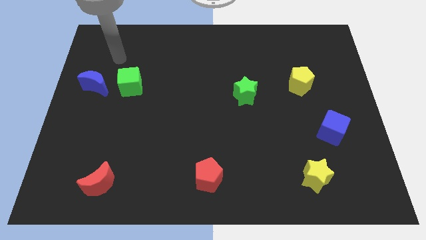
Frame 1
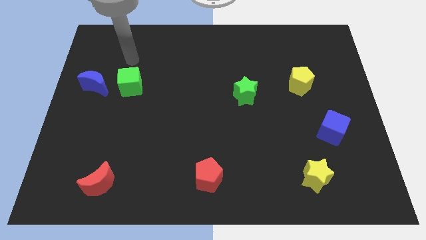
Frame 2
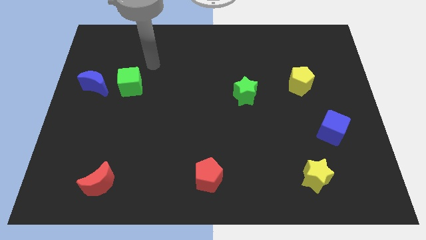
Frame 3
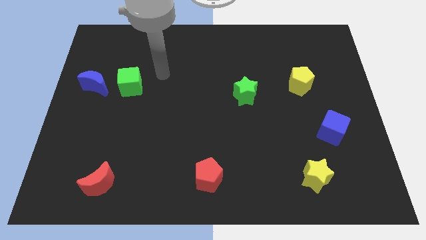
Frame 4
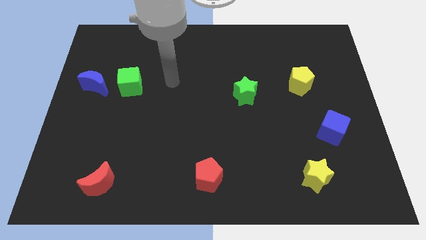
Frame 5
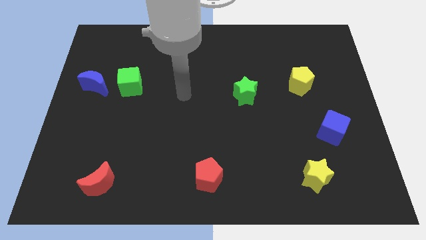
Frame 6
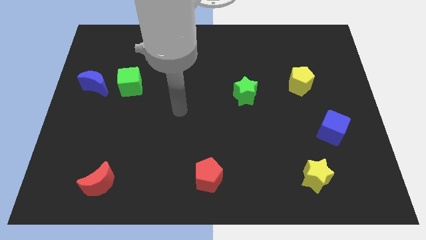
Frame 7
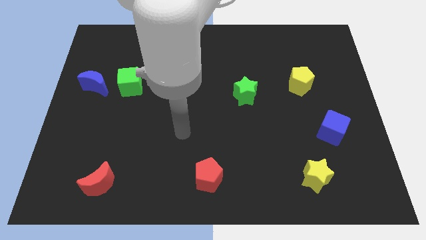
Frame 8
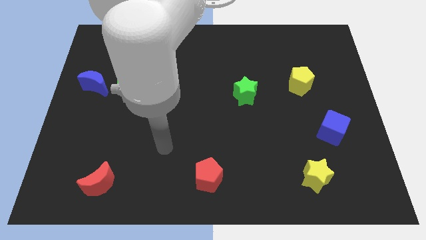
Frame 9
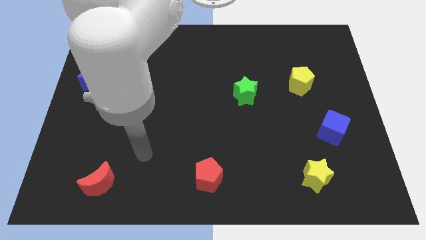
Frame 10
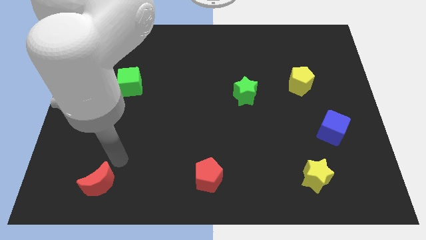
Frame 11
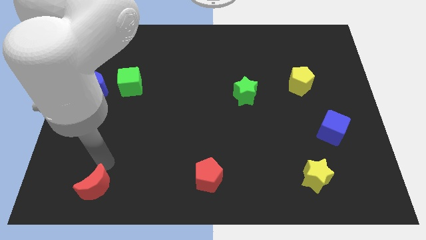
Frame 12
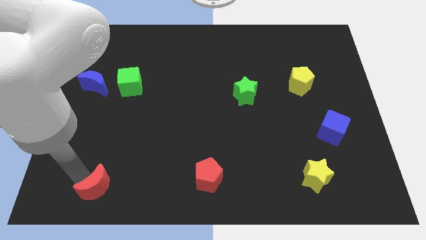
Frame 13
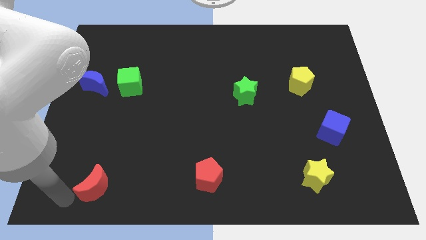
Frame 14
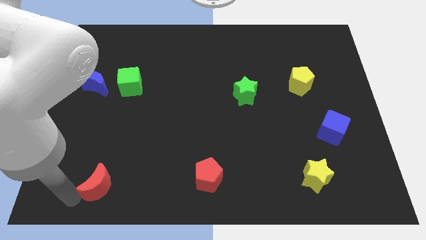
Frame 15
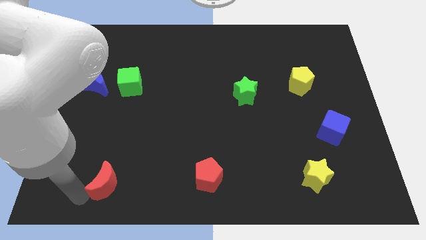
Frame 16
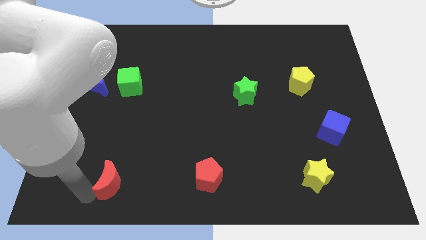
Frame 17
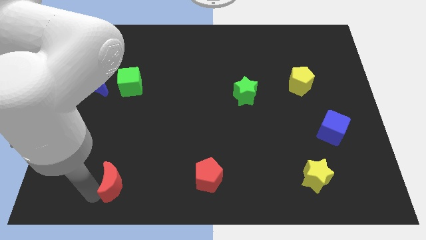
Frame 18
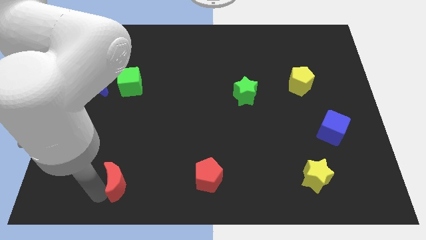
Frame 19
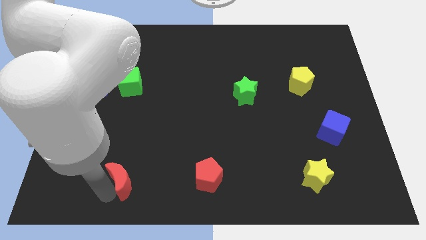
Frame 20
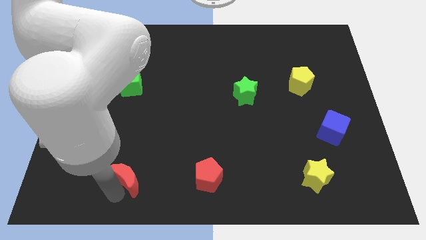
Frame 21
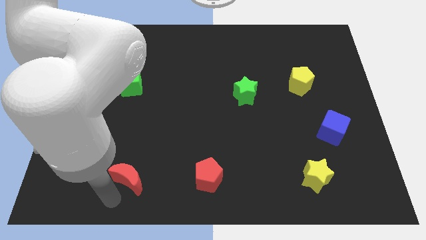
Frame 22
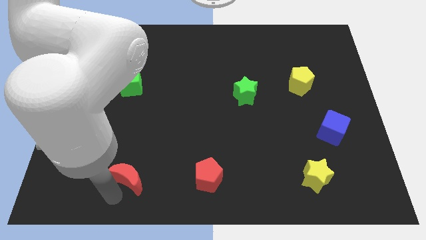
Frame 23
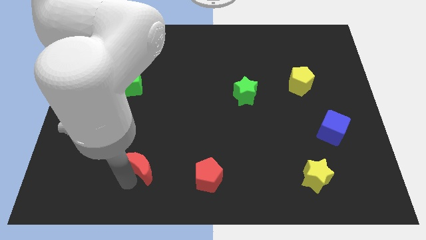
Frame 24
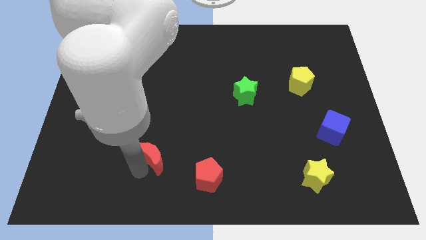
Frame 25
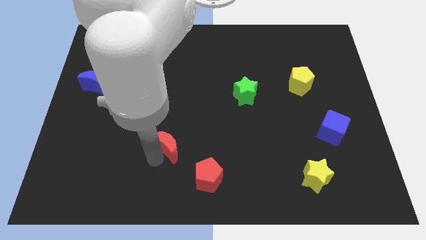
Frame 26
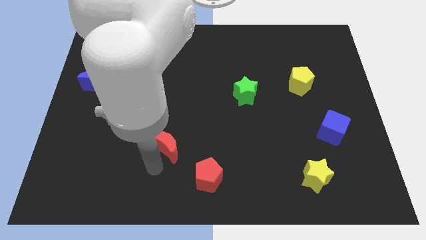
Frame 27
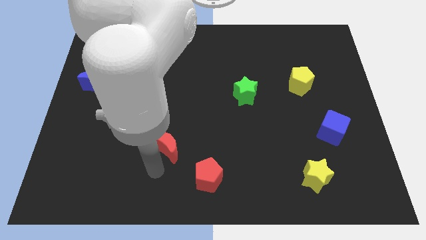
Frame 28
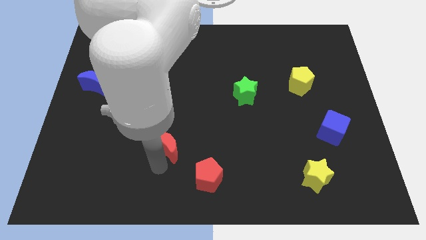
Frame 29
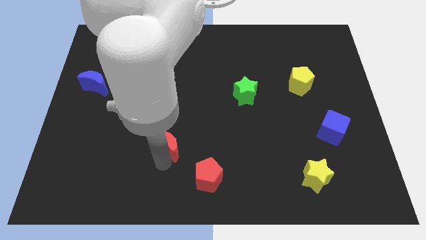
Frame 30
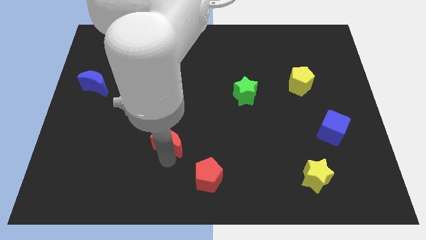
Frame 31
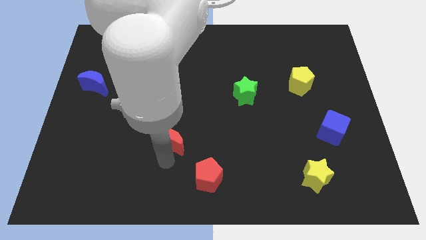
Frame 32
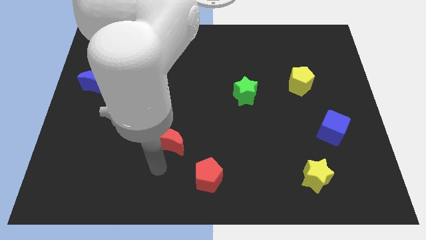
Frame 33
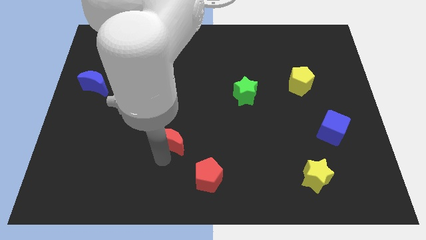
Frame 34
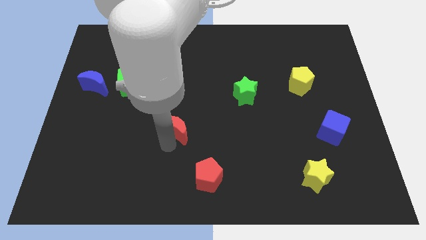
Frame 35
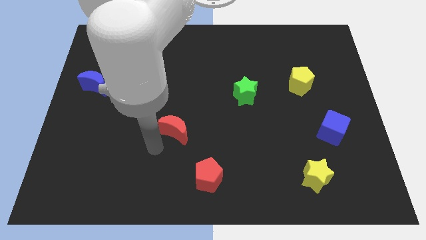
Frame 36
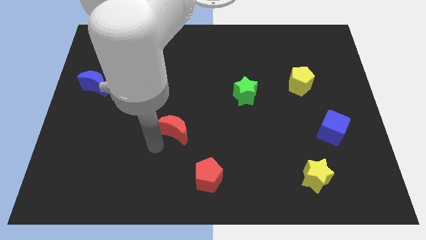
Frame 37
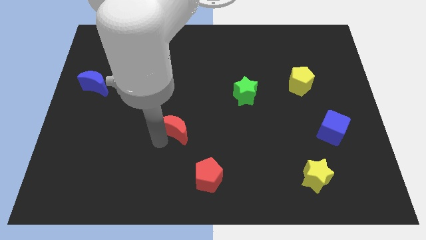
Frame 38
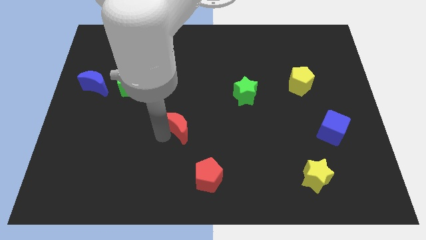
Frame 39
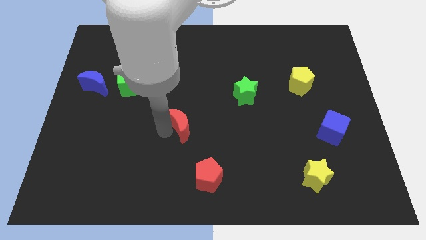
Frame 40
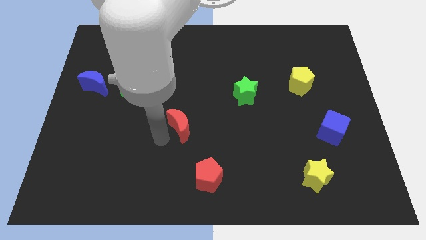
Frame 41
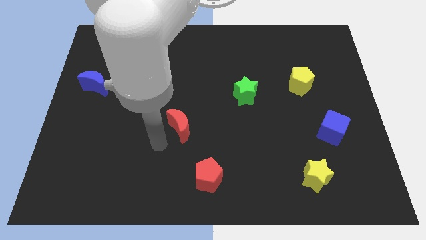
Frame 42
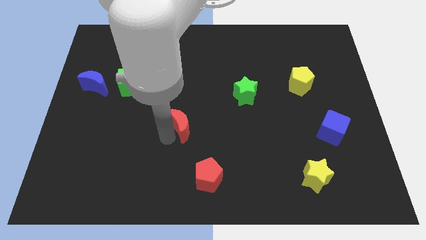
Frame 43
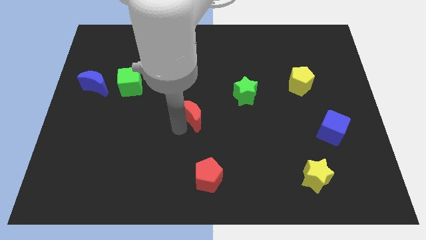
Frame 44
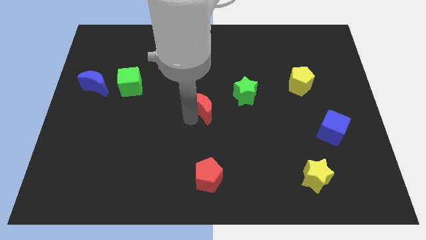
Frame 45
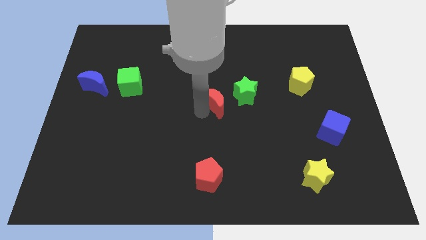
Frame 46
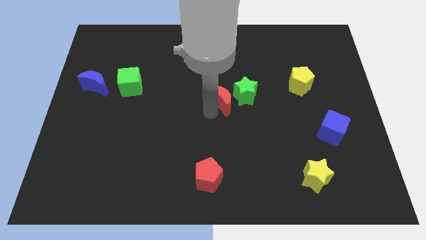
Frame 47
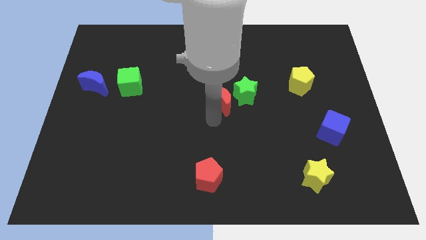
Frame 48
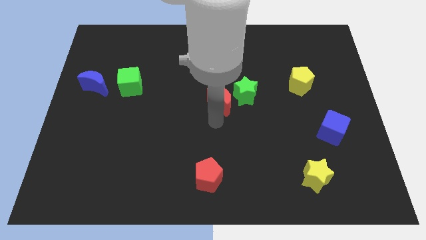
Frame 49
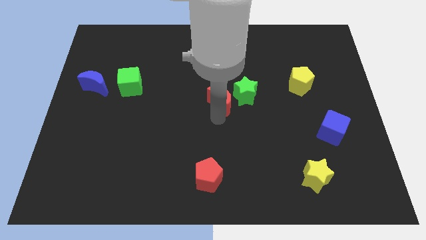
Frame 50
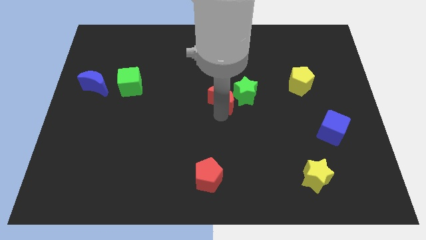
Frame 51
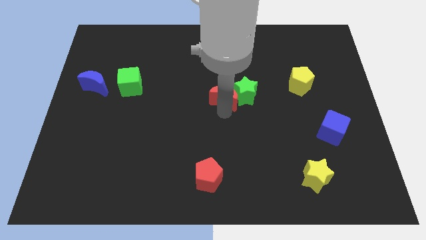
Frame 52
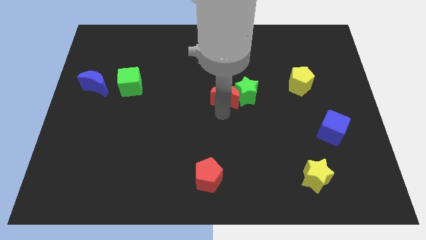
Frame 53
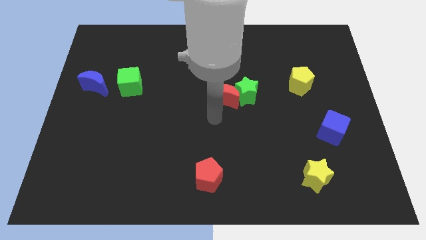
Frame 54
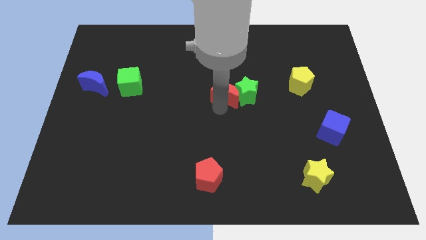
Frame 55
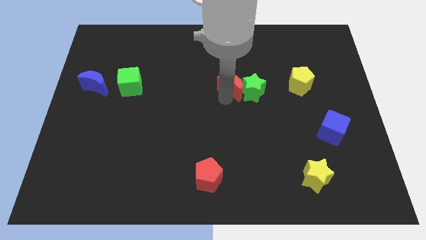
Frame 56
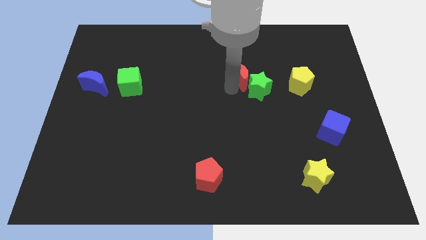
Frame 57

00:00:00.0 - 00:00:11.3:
push the red moon to the top side of the green star

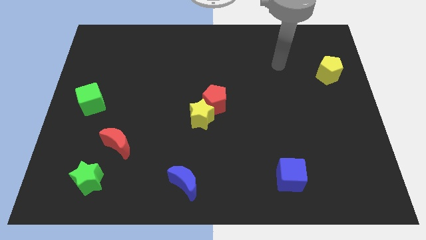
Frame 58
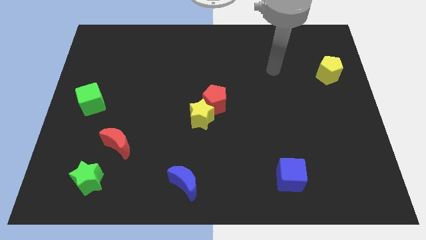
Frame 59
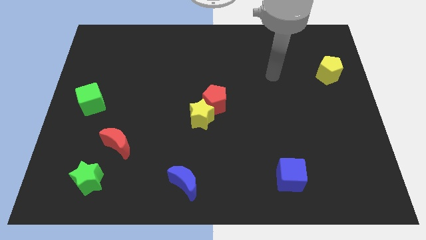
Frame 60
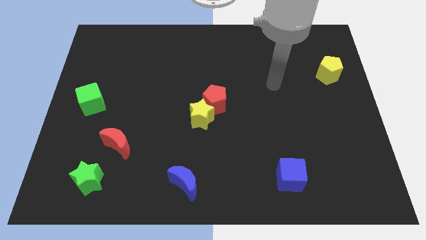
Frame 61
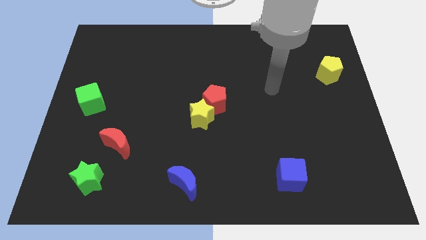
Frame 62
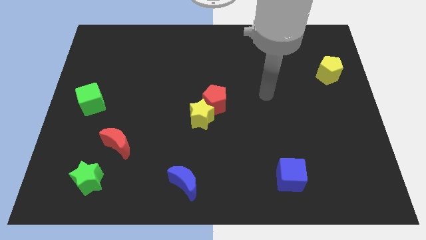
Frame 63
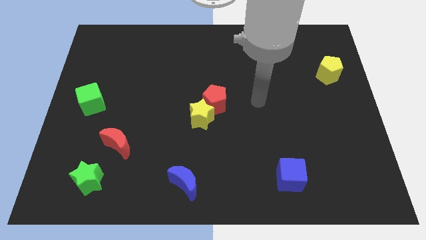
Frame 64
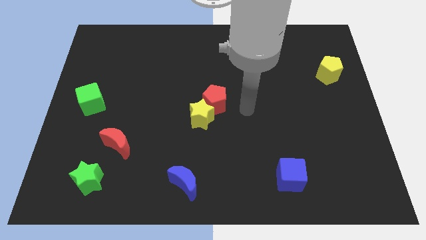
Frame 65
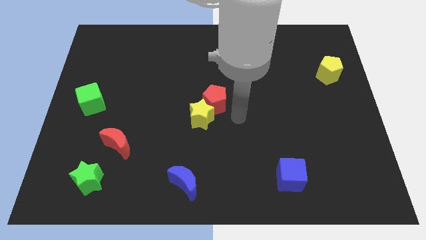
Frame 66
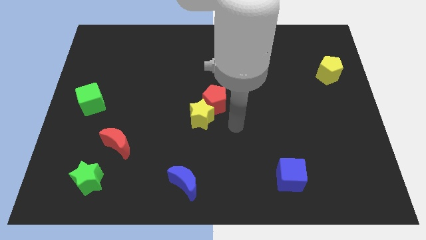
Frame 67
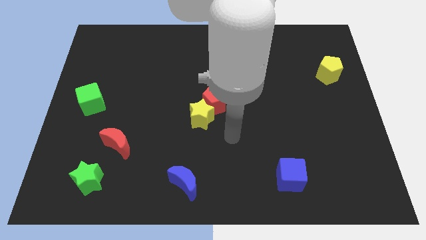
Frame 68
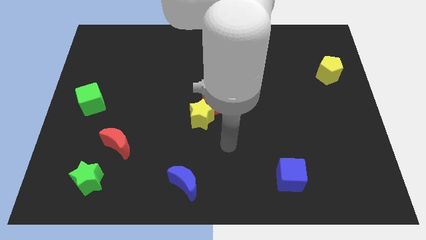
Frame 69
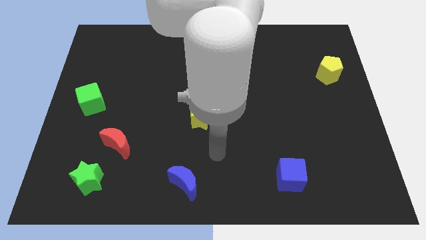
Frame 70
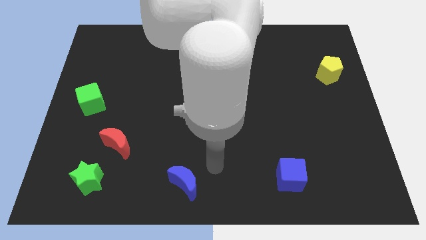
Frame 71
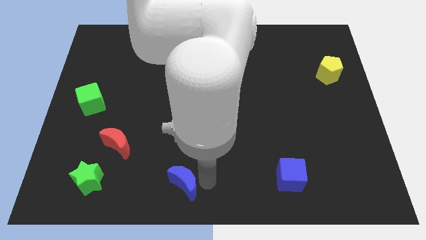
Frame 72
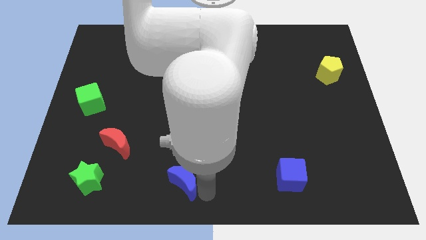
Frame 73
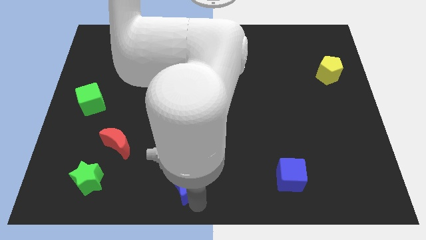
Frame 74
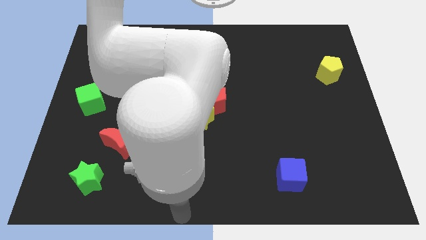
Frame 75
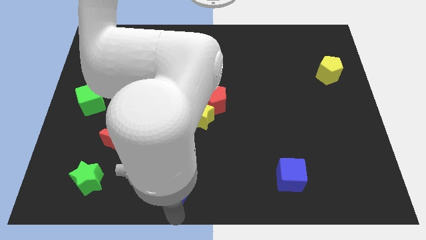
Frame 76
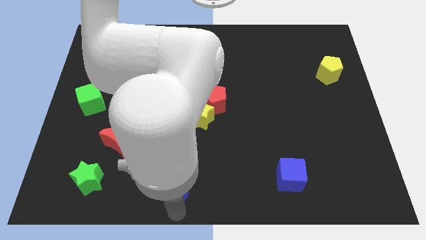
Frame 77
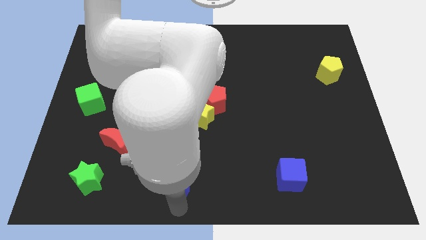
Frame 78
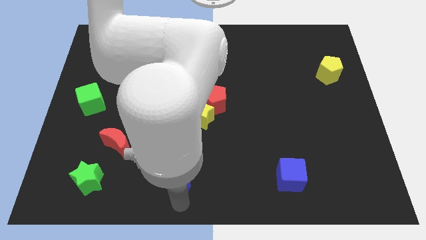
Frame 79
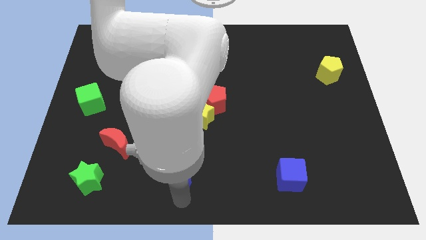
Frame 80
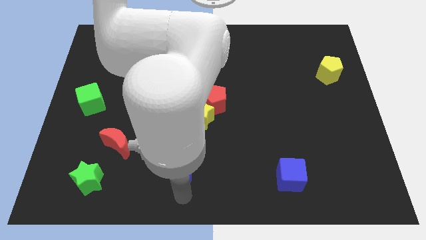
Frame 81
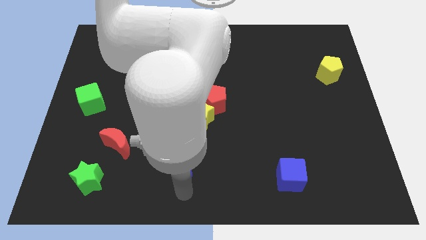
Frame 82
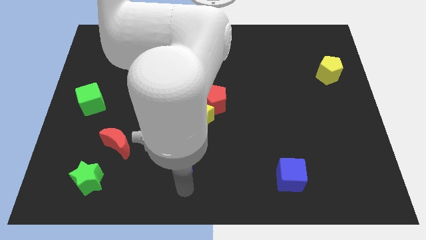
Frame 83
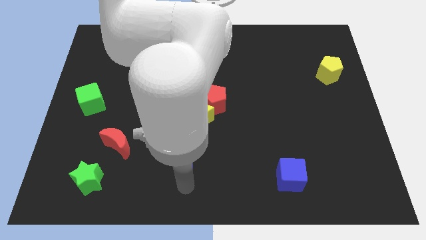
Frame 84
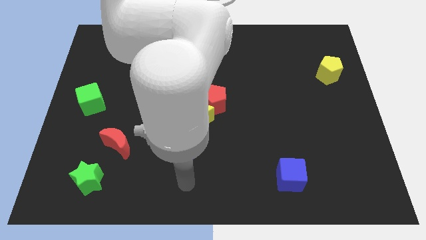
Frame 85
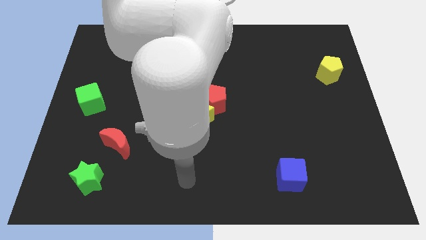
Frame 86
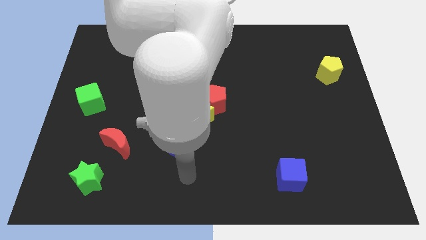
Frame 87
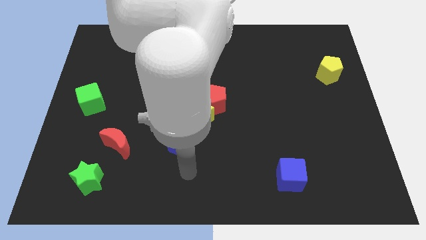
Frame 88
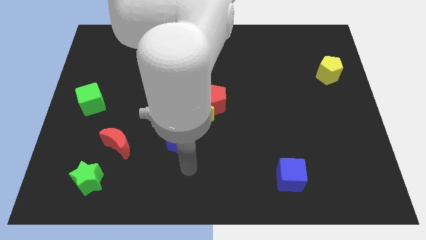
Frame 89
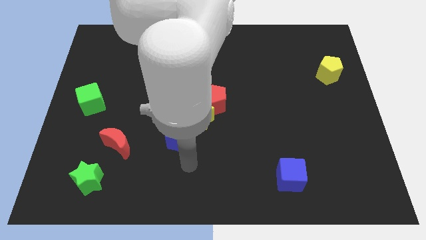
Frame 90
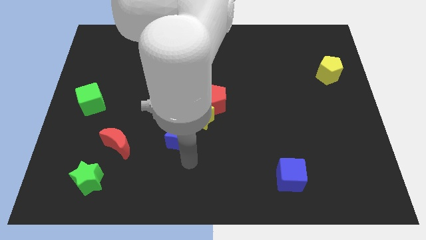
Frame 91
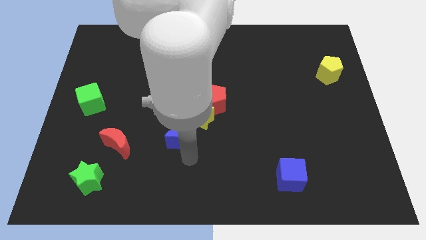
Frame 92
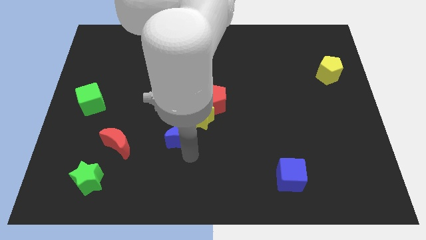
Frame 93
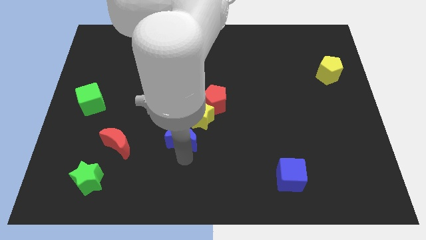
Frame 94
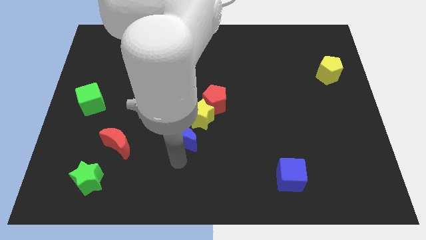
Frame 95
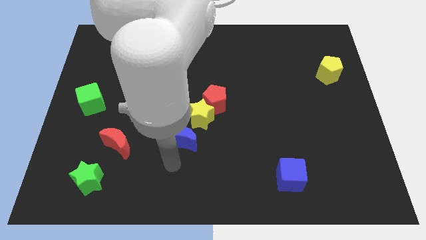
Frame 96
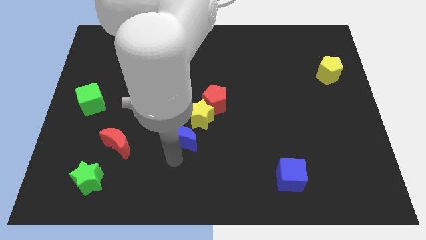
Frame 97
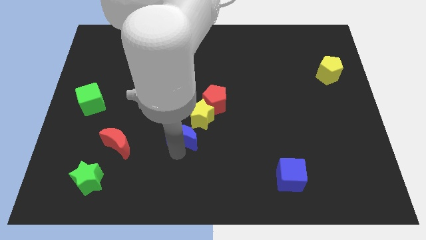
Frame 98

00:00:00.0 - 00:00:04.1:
put the blue moon to the bottom left of the red pentagon
